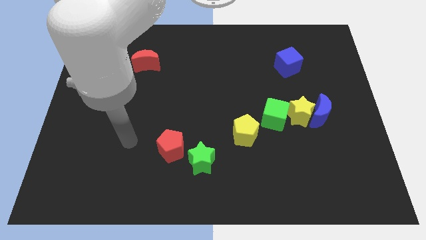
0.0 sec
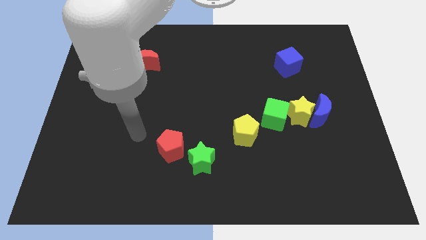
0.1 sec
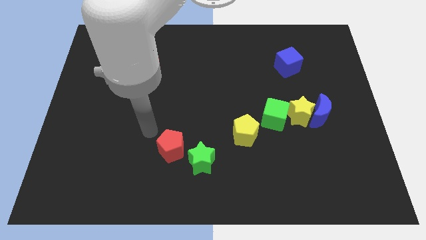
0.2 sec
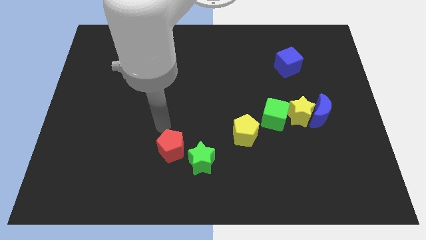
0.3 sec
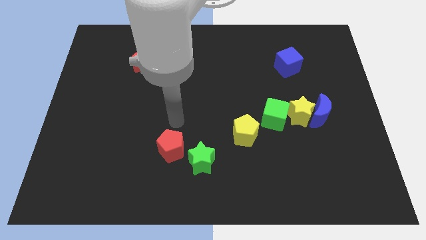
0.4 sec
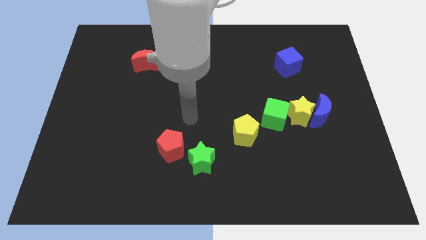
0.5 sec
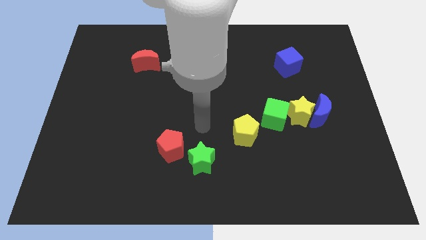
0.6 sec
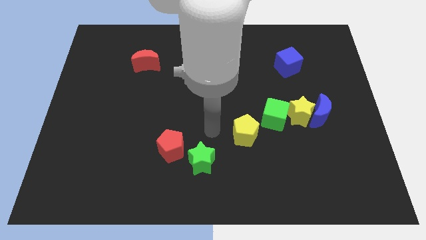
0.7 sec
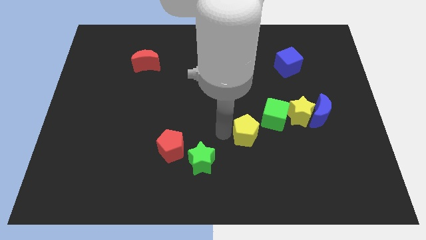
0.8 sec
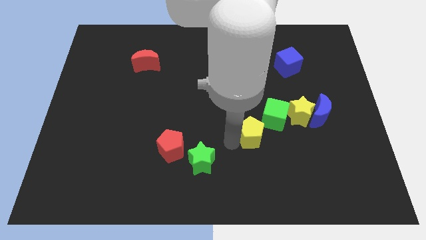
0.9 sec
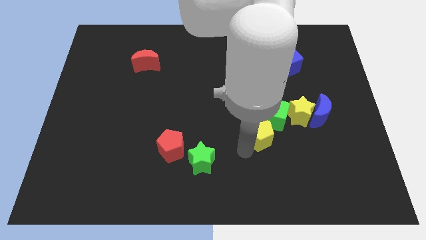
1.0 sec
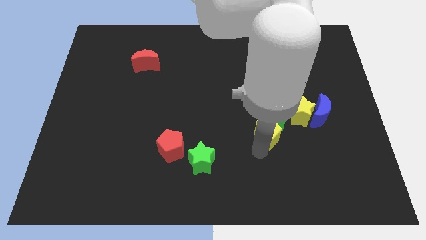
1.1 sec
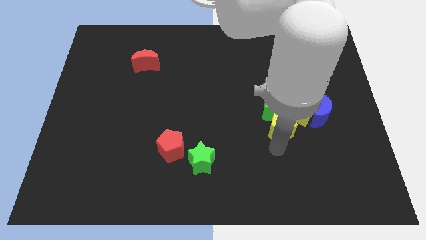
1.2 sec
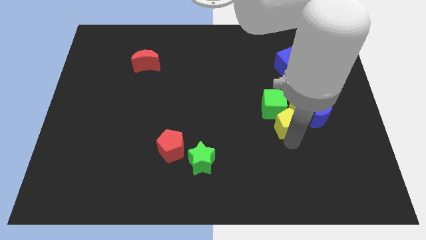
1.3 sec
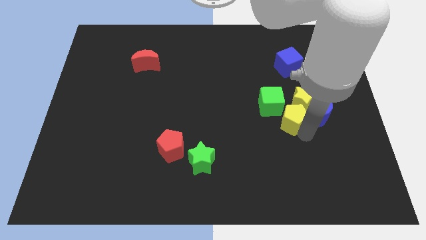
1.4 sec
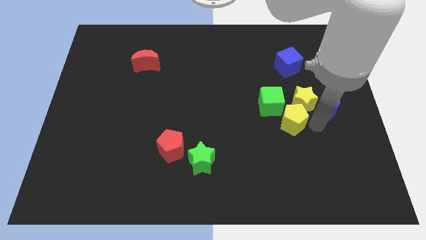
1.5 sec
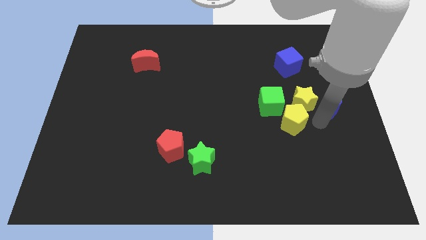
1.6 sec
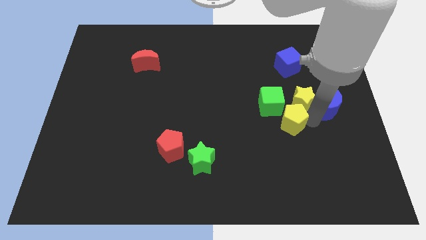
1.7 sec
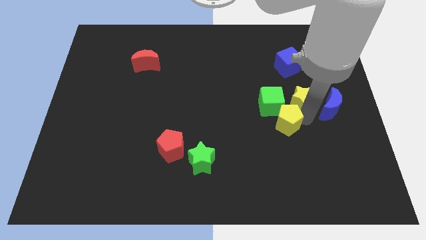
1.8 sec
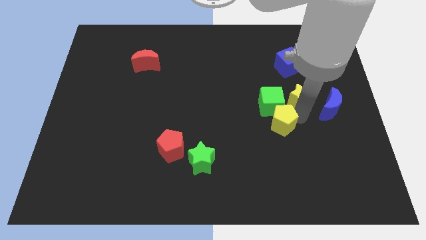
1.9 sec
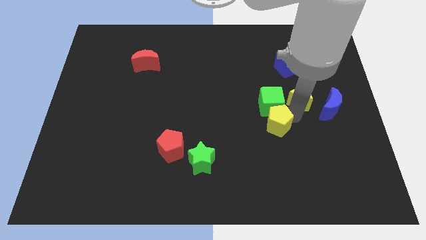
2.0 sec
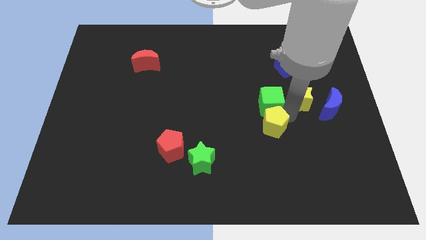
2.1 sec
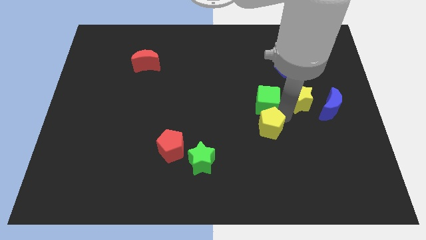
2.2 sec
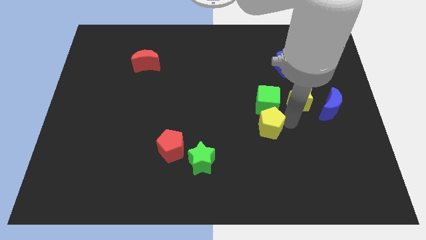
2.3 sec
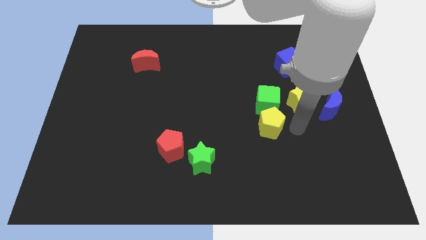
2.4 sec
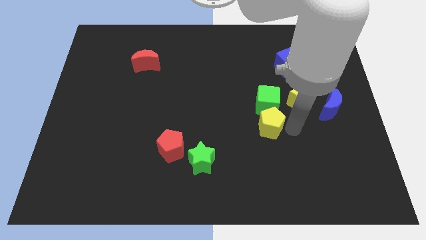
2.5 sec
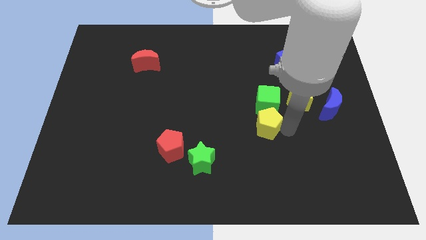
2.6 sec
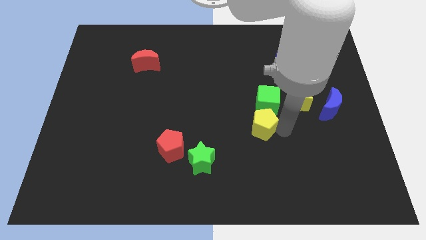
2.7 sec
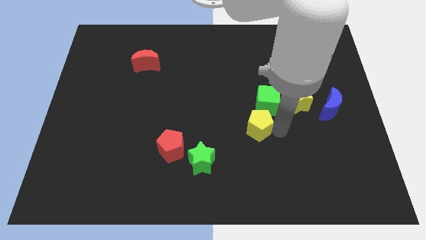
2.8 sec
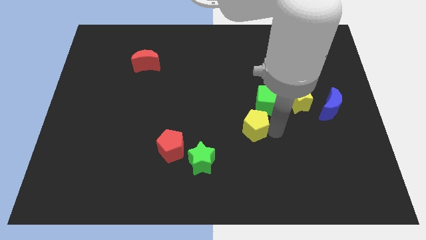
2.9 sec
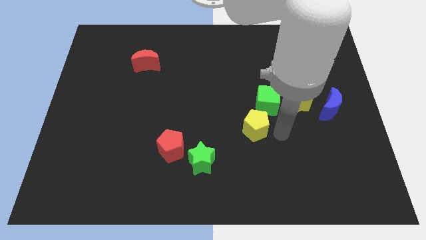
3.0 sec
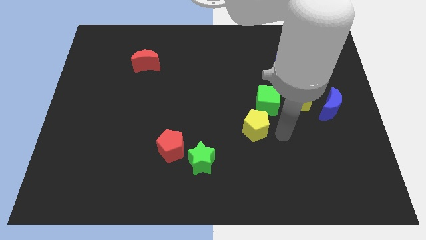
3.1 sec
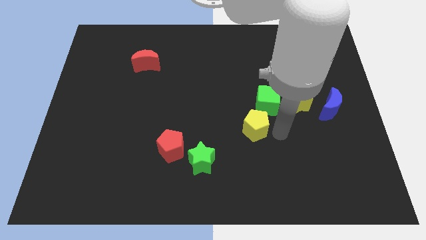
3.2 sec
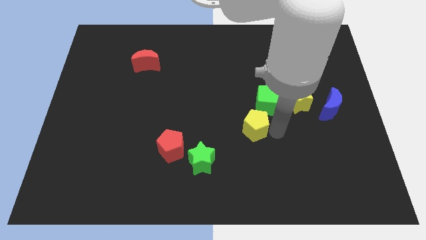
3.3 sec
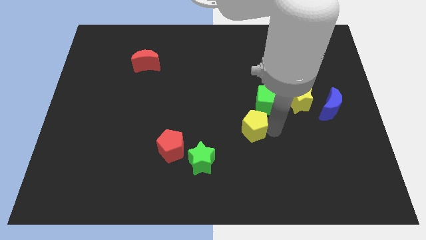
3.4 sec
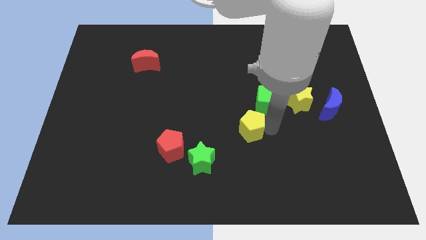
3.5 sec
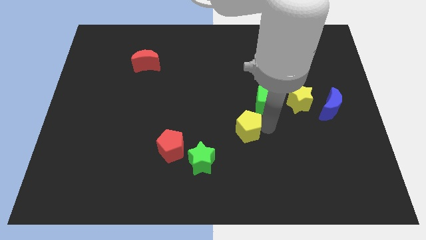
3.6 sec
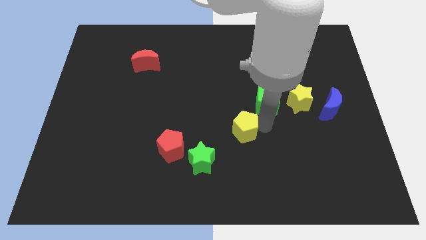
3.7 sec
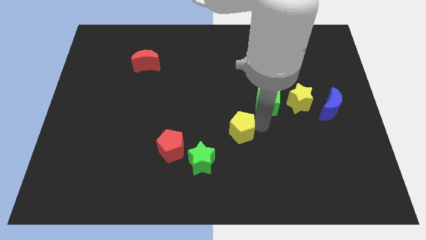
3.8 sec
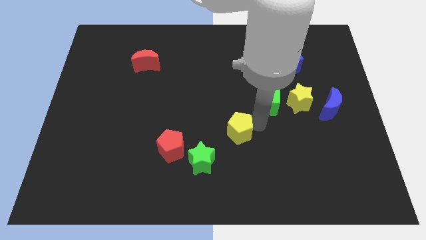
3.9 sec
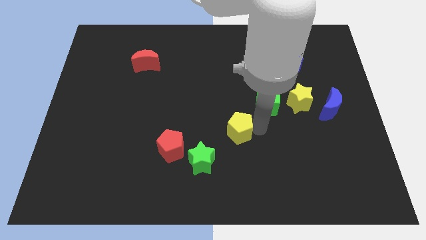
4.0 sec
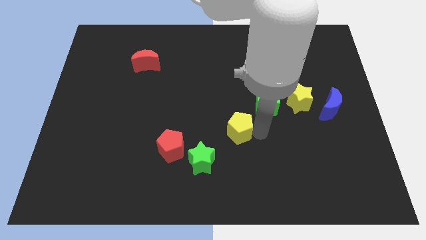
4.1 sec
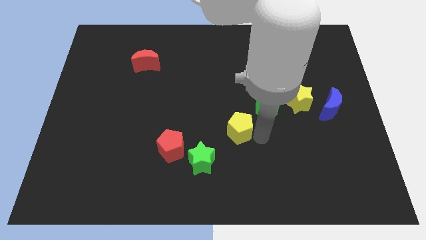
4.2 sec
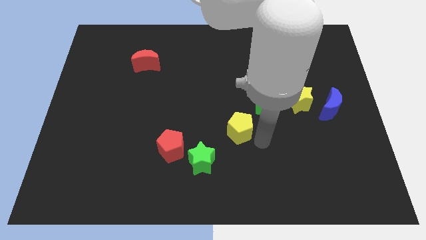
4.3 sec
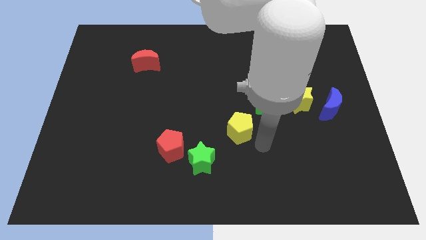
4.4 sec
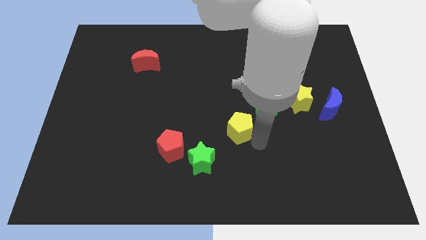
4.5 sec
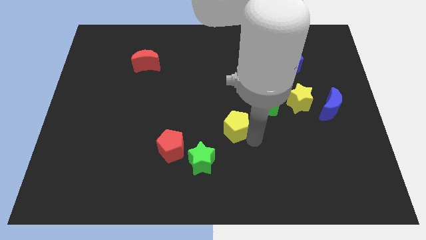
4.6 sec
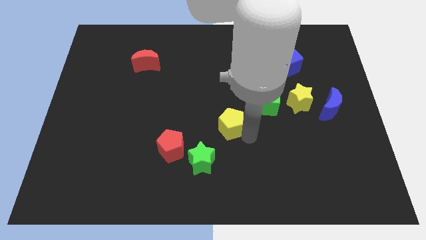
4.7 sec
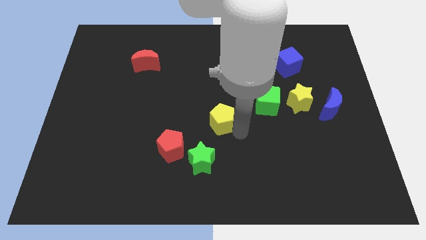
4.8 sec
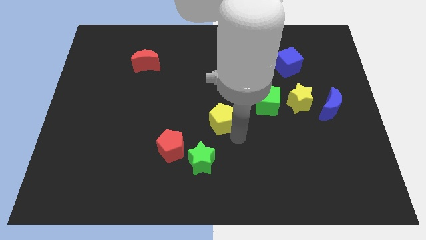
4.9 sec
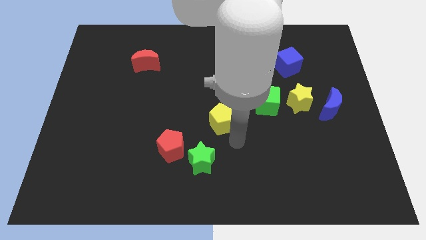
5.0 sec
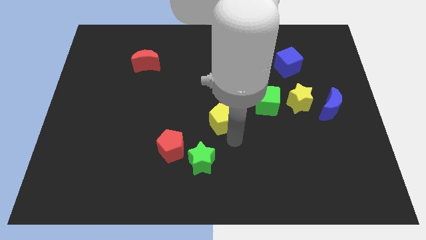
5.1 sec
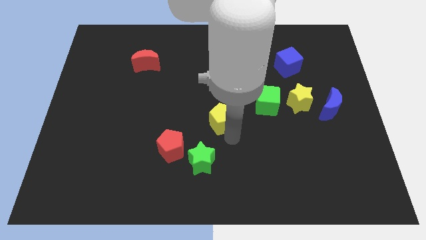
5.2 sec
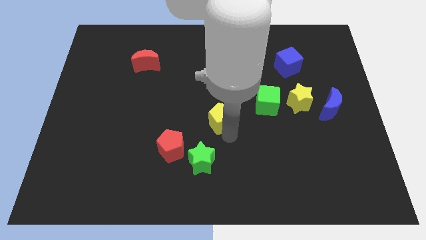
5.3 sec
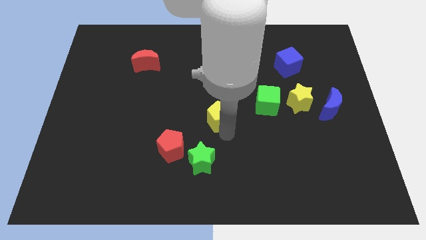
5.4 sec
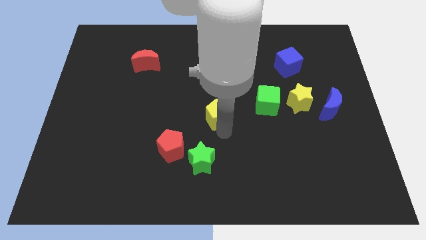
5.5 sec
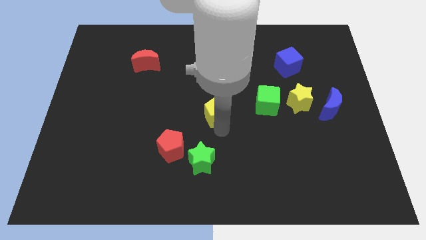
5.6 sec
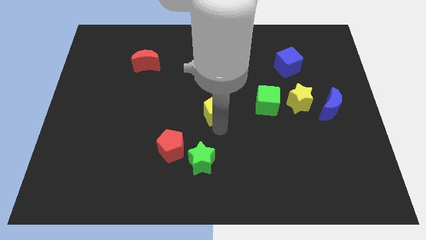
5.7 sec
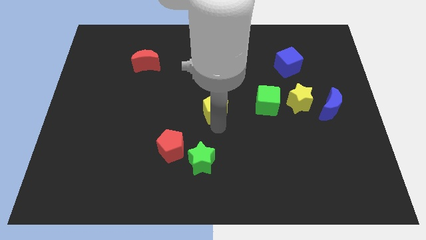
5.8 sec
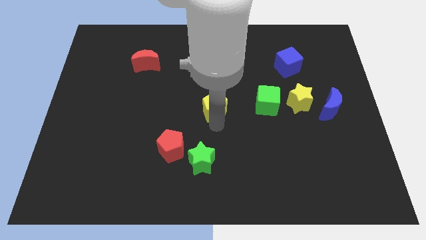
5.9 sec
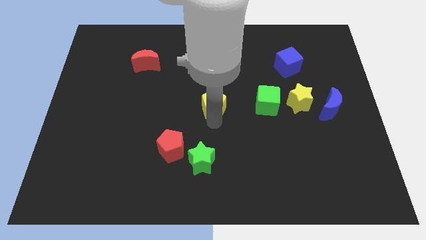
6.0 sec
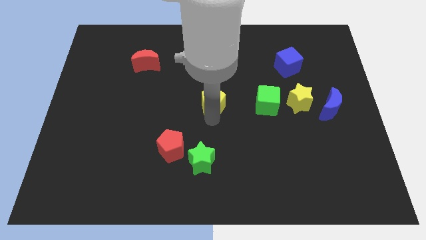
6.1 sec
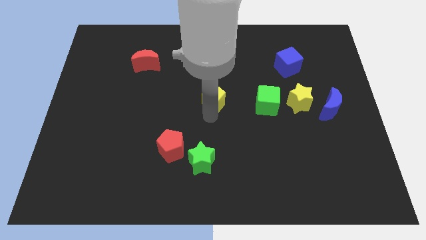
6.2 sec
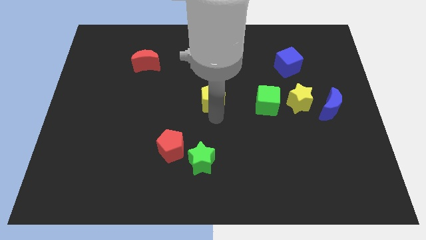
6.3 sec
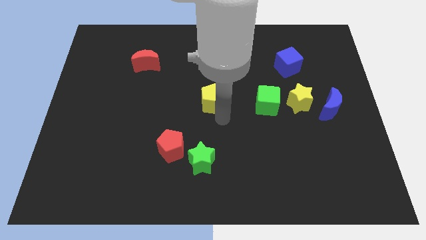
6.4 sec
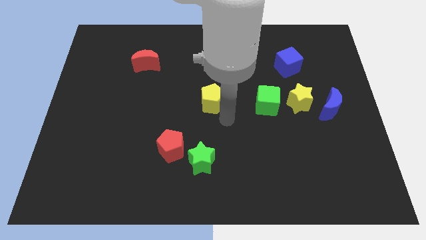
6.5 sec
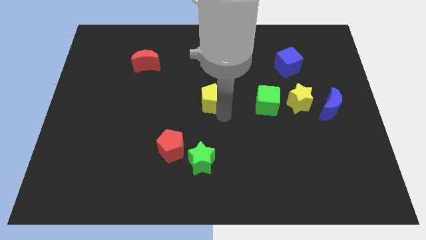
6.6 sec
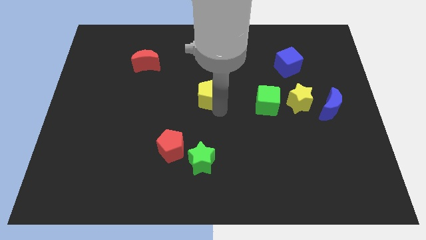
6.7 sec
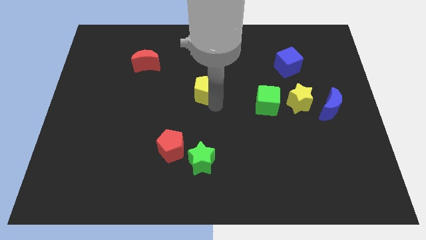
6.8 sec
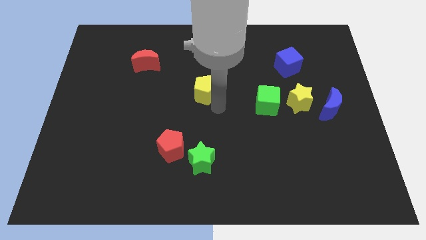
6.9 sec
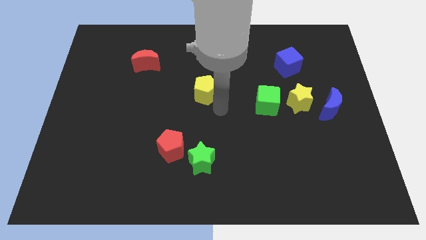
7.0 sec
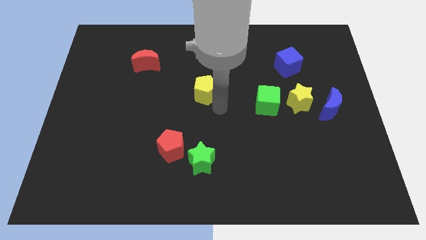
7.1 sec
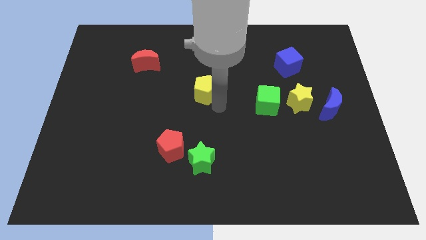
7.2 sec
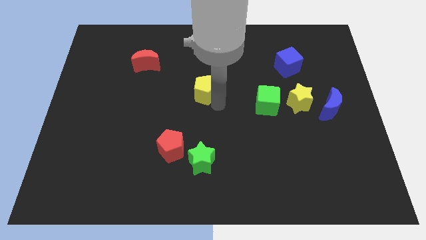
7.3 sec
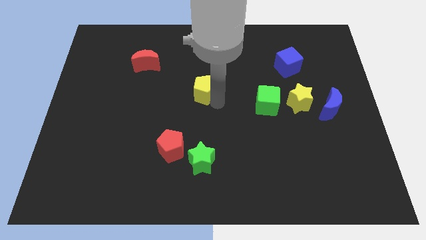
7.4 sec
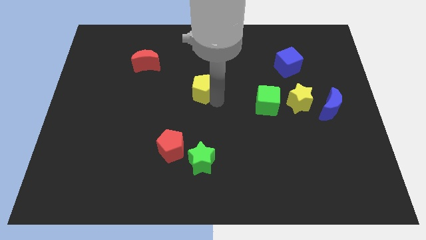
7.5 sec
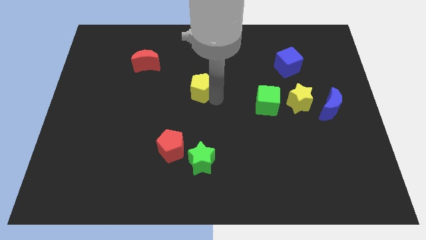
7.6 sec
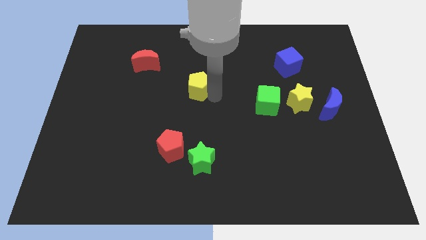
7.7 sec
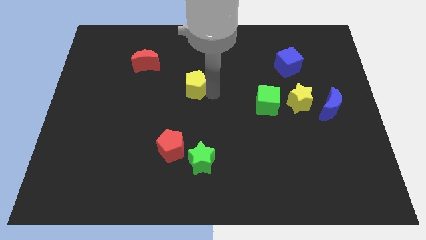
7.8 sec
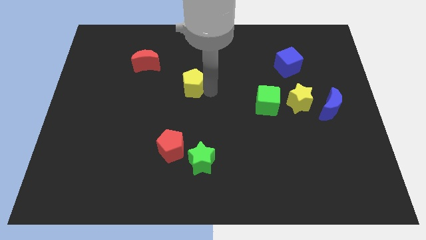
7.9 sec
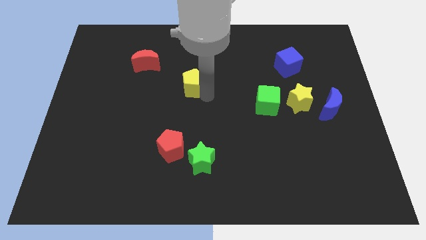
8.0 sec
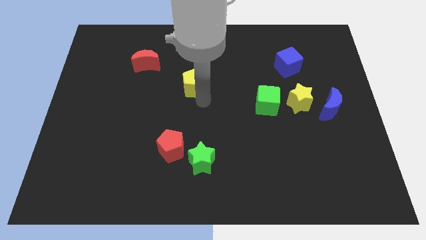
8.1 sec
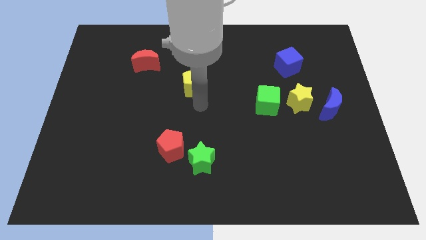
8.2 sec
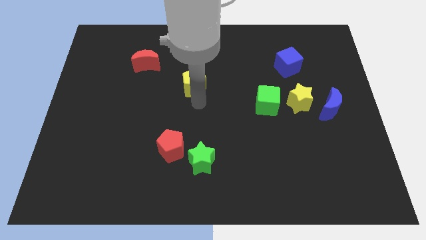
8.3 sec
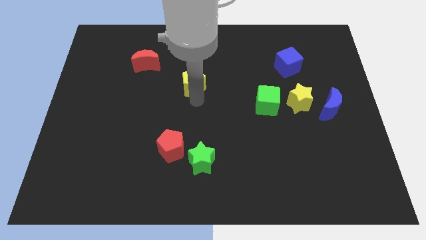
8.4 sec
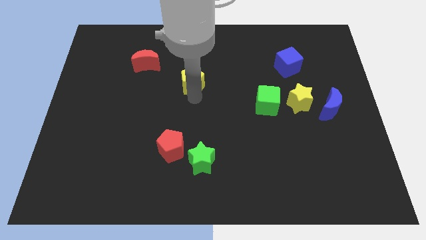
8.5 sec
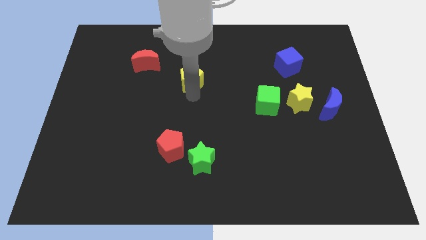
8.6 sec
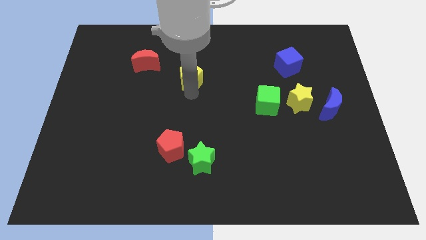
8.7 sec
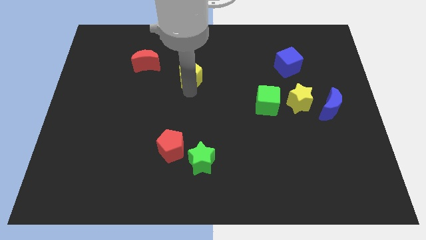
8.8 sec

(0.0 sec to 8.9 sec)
push the yellow pentagon to the right side of the red moon
